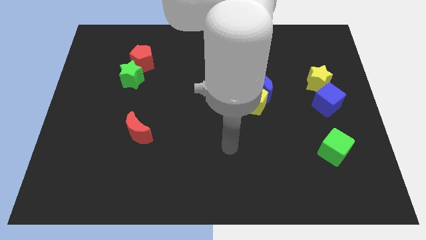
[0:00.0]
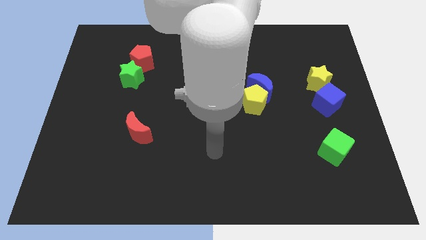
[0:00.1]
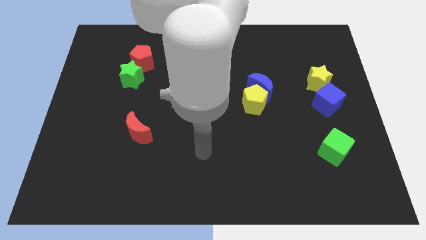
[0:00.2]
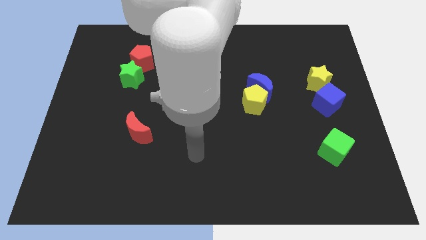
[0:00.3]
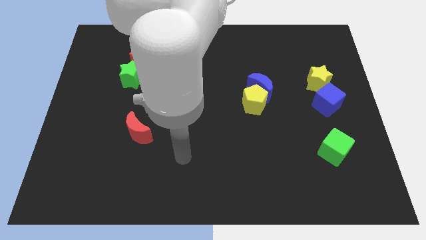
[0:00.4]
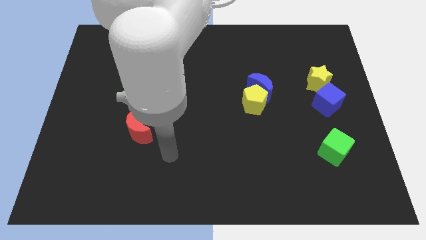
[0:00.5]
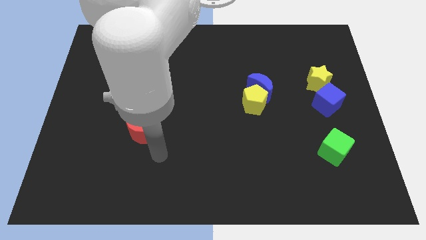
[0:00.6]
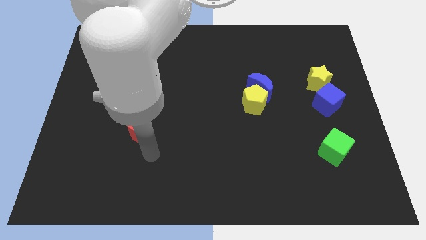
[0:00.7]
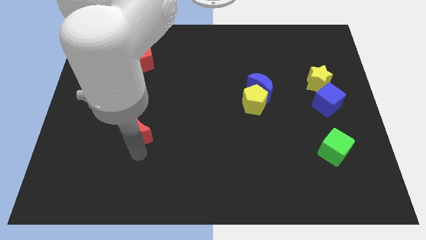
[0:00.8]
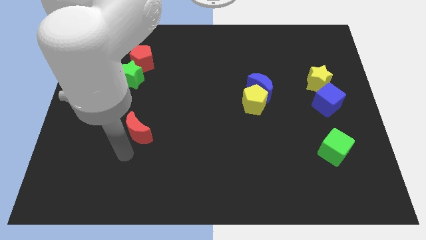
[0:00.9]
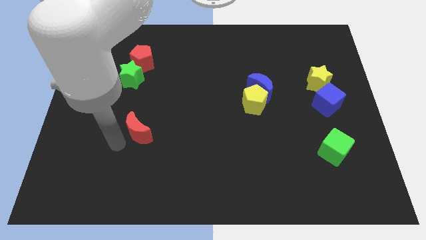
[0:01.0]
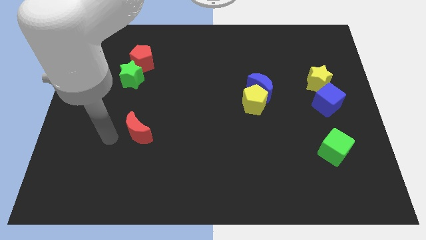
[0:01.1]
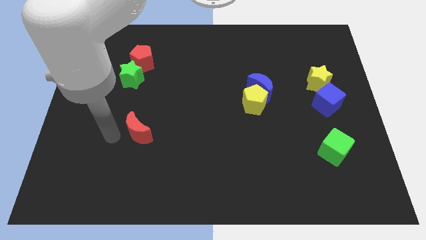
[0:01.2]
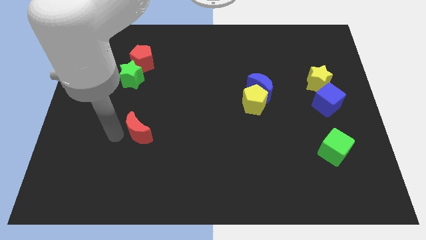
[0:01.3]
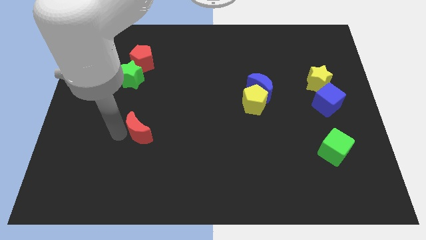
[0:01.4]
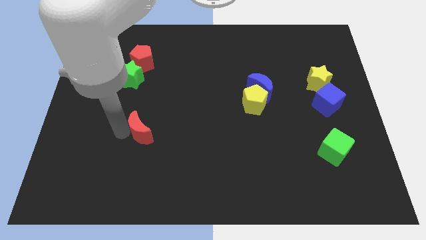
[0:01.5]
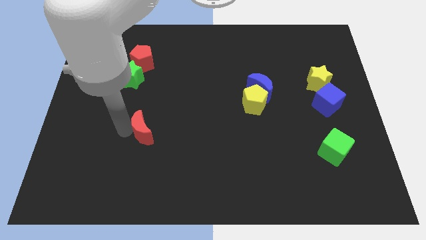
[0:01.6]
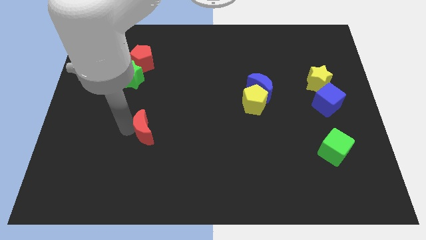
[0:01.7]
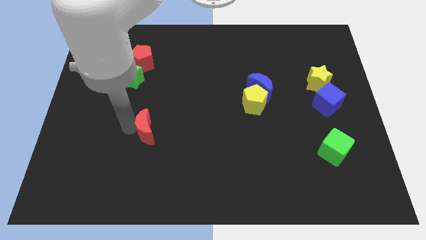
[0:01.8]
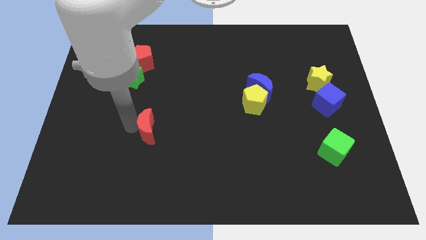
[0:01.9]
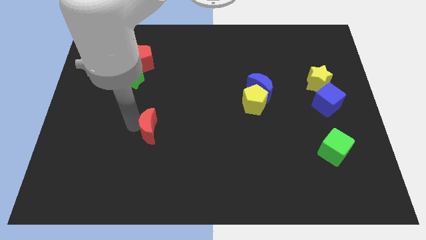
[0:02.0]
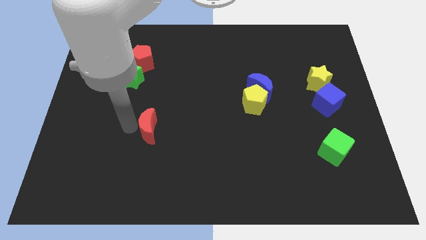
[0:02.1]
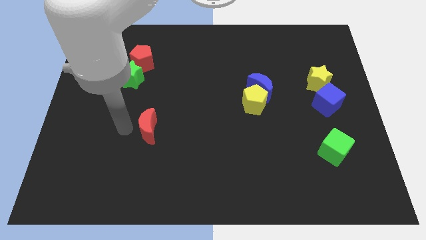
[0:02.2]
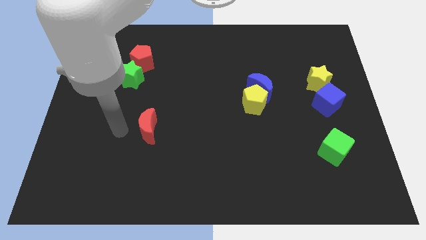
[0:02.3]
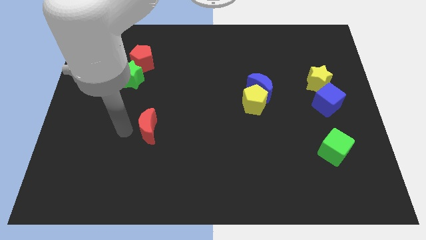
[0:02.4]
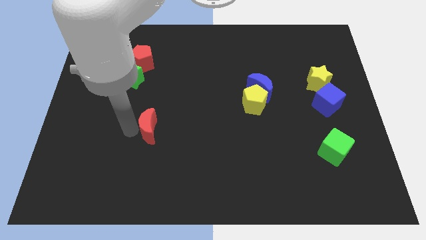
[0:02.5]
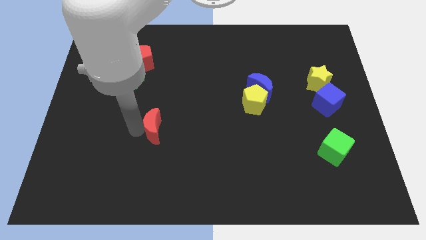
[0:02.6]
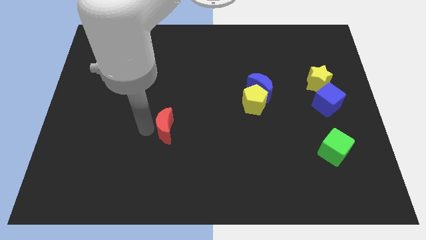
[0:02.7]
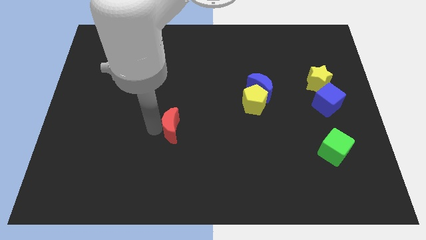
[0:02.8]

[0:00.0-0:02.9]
slightly push the red moon right

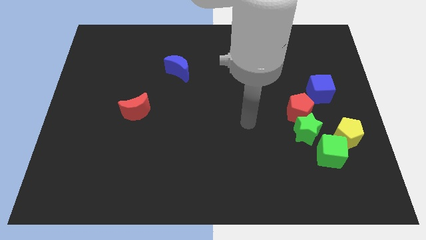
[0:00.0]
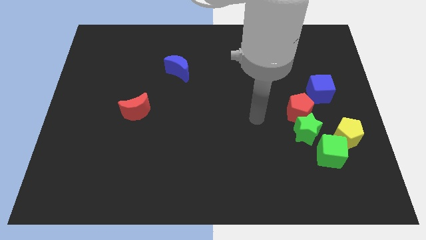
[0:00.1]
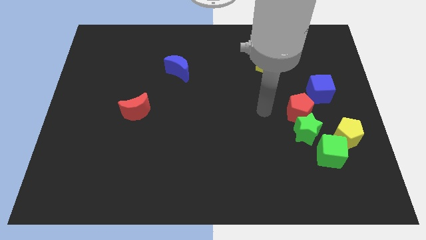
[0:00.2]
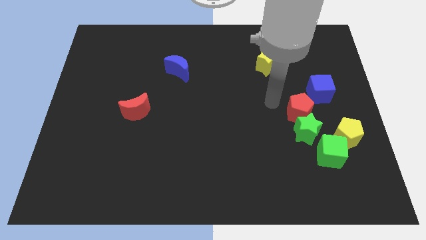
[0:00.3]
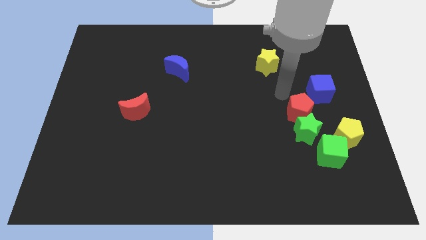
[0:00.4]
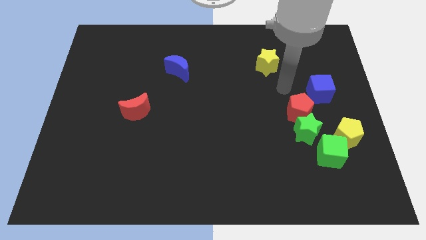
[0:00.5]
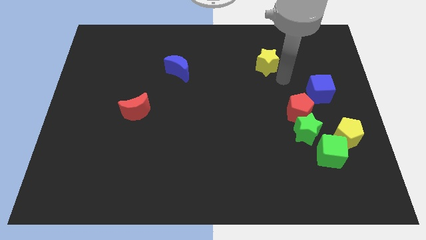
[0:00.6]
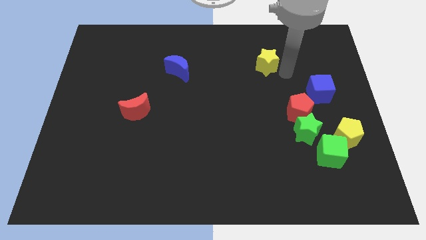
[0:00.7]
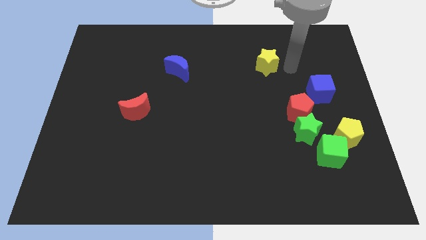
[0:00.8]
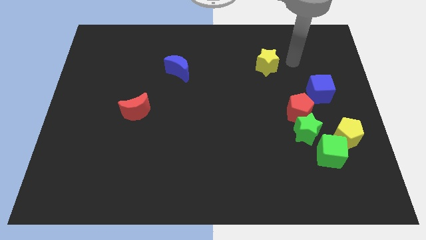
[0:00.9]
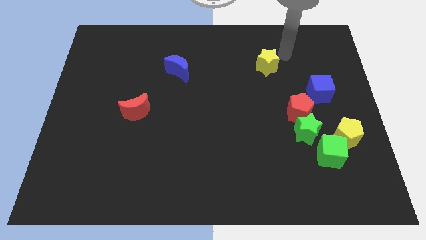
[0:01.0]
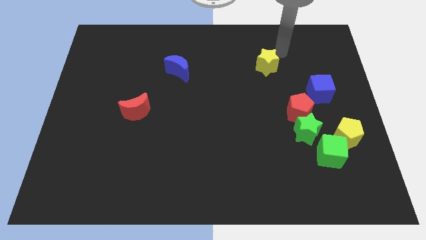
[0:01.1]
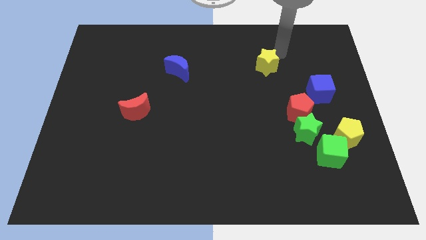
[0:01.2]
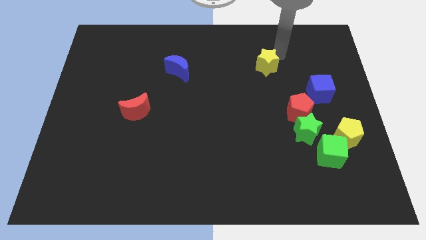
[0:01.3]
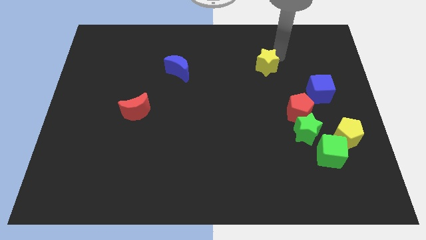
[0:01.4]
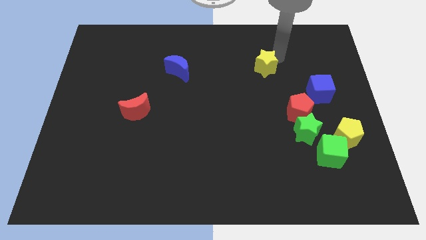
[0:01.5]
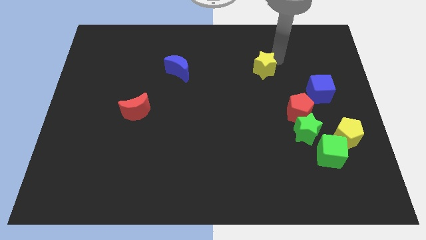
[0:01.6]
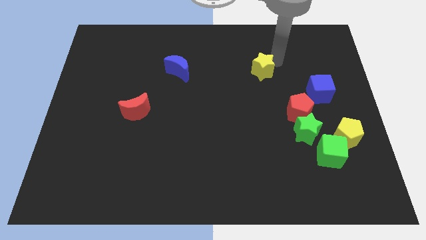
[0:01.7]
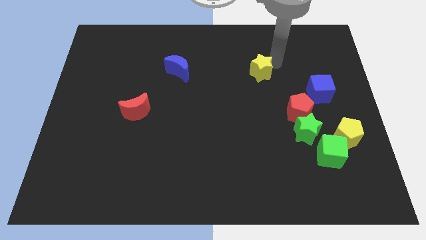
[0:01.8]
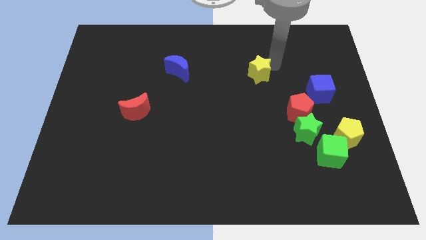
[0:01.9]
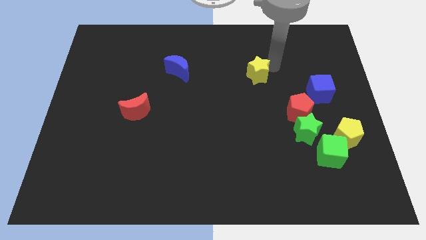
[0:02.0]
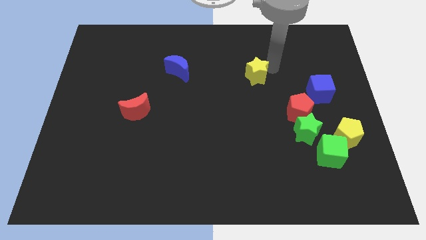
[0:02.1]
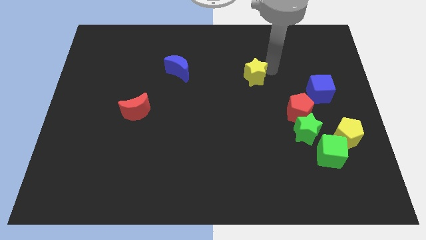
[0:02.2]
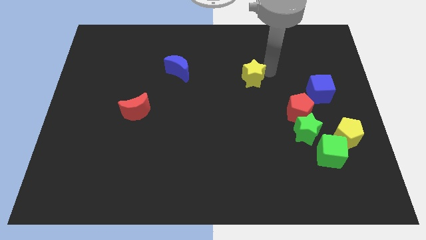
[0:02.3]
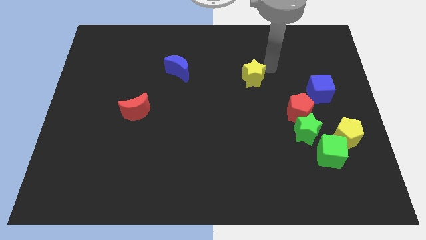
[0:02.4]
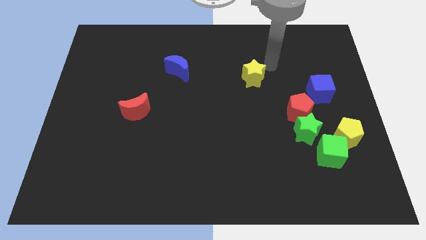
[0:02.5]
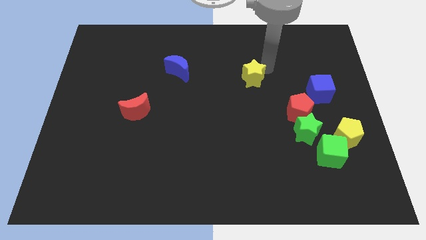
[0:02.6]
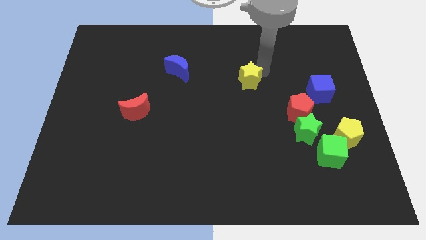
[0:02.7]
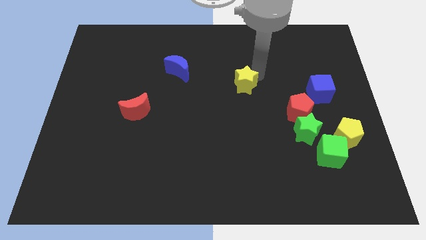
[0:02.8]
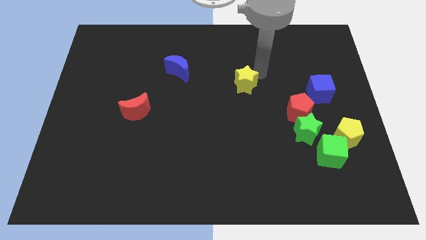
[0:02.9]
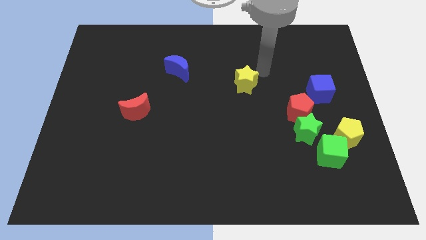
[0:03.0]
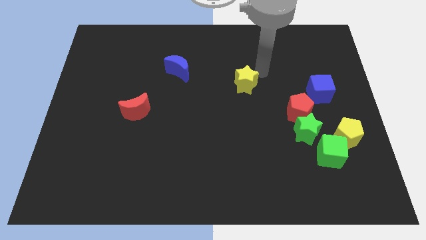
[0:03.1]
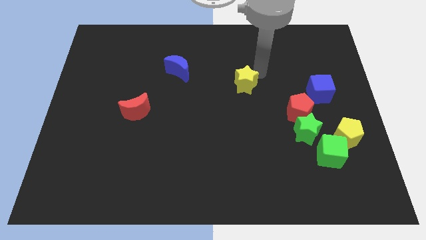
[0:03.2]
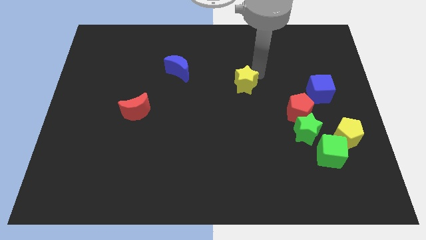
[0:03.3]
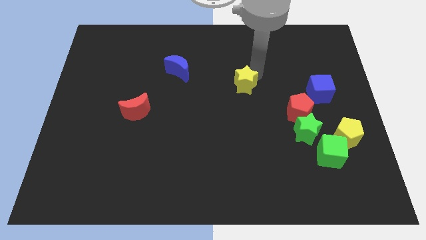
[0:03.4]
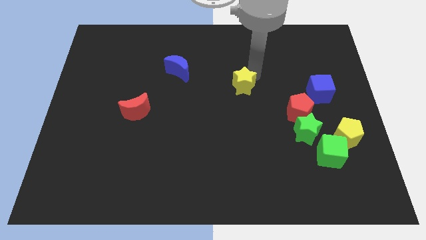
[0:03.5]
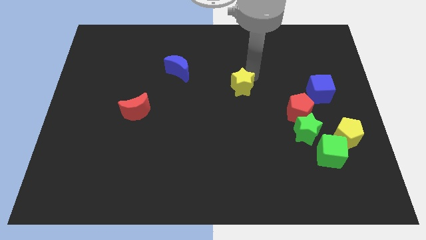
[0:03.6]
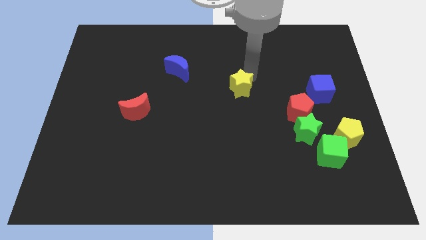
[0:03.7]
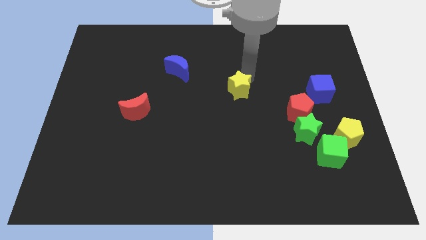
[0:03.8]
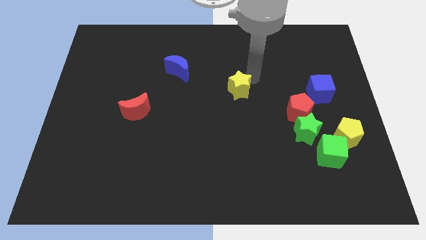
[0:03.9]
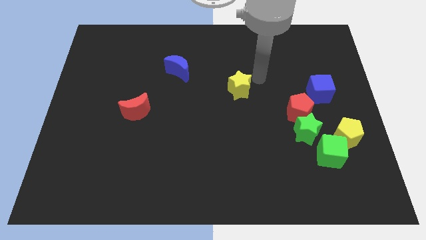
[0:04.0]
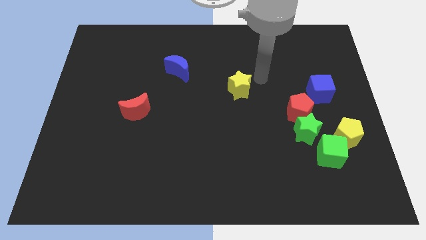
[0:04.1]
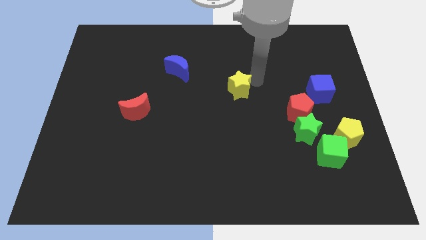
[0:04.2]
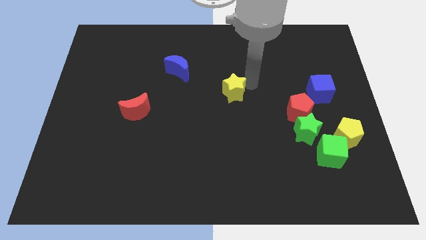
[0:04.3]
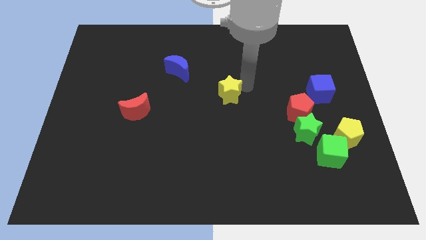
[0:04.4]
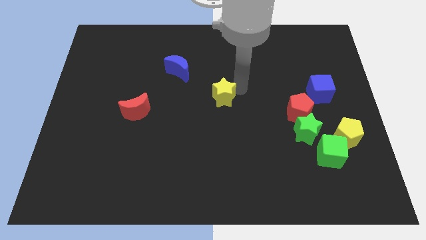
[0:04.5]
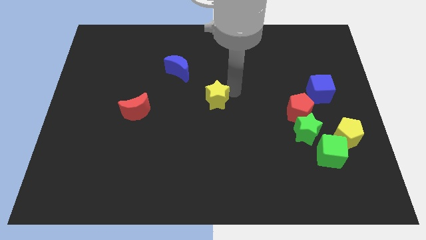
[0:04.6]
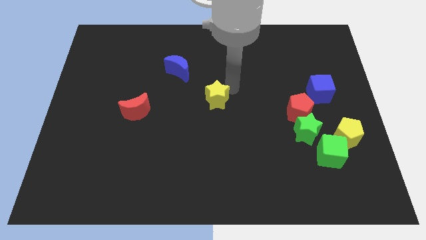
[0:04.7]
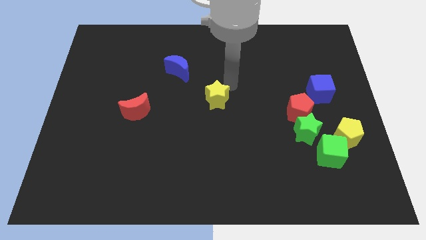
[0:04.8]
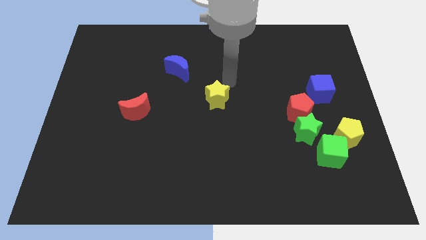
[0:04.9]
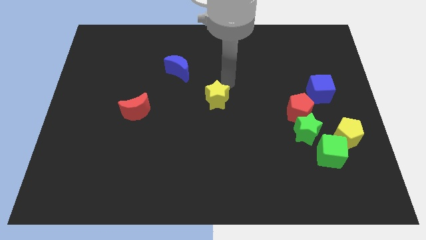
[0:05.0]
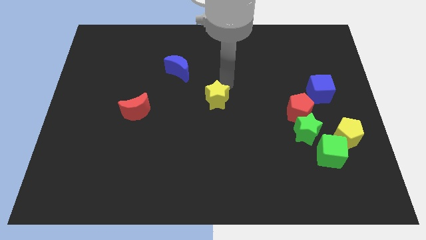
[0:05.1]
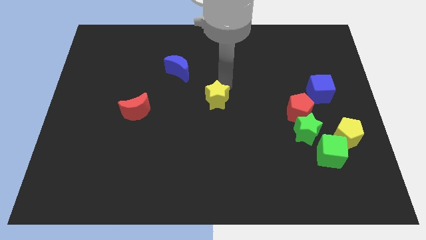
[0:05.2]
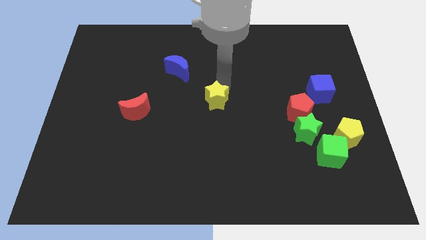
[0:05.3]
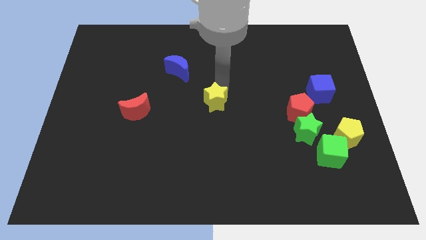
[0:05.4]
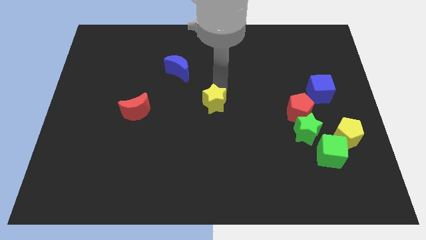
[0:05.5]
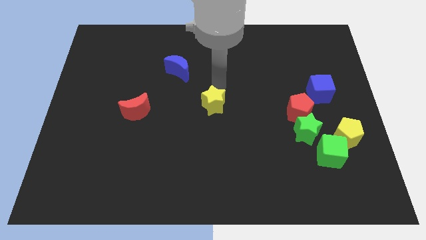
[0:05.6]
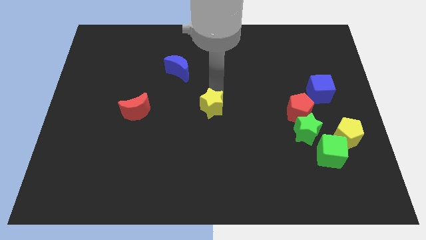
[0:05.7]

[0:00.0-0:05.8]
slide the yellow star downwards and to the left diagonally
